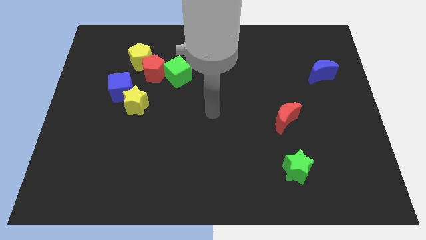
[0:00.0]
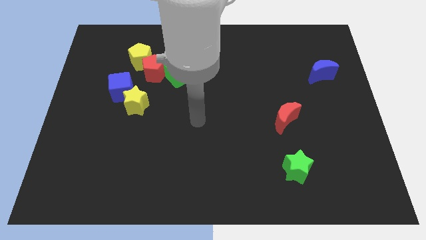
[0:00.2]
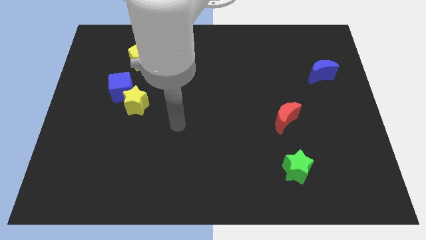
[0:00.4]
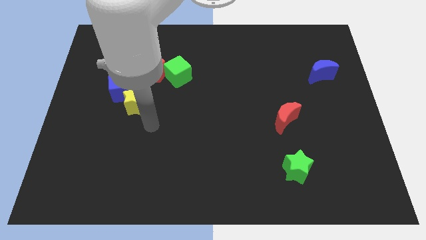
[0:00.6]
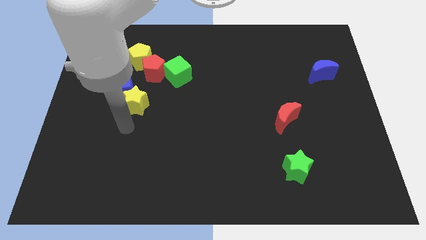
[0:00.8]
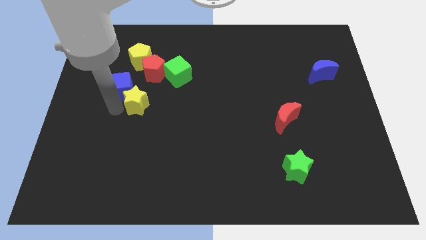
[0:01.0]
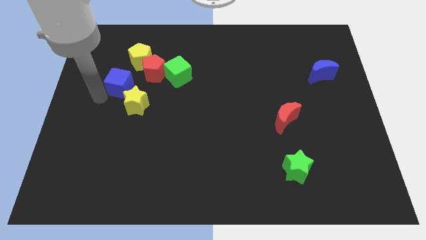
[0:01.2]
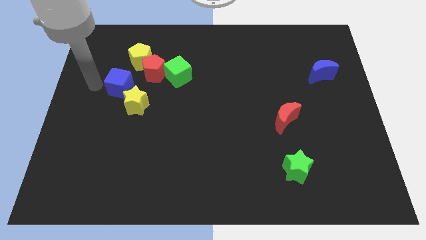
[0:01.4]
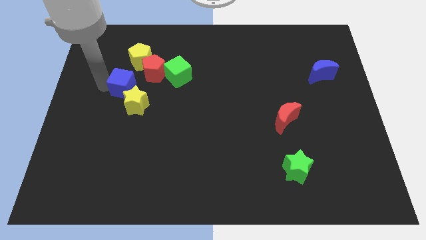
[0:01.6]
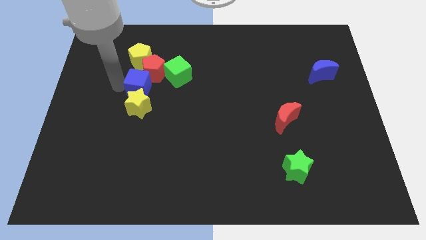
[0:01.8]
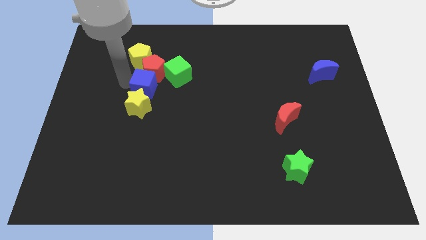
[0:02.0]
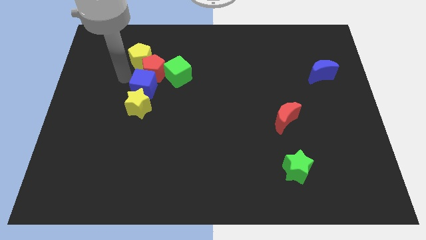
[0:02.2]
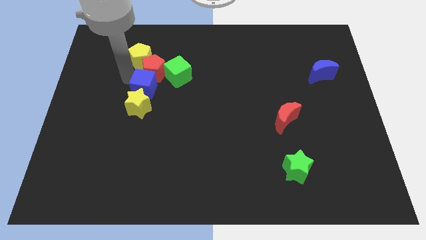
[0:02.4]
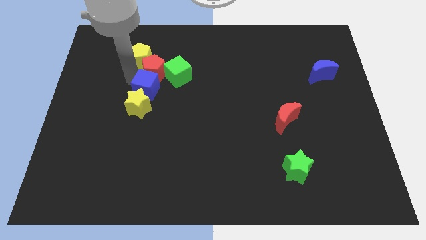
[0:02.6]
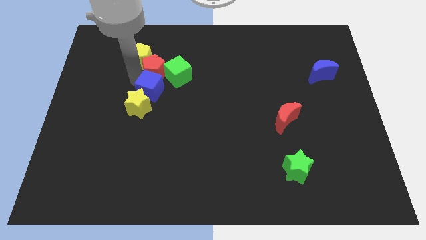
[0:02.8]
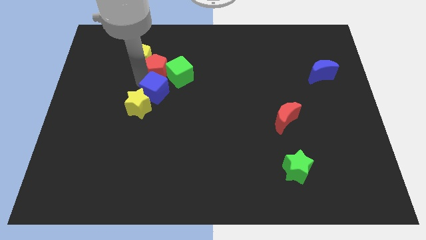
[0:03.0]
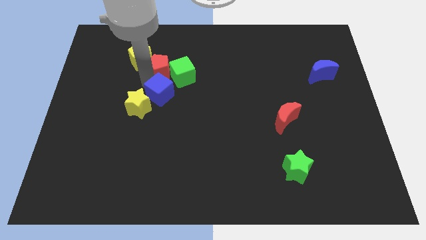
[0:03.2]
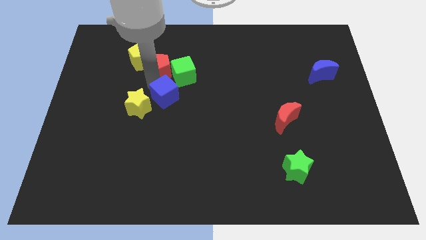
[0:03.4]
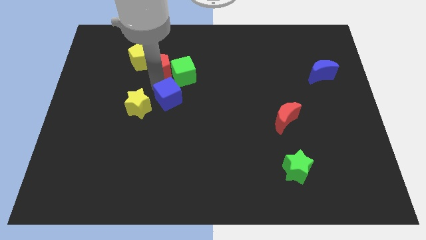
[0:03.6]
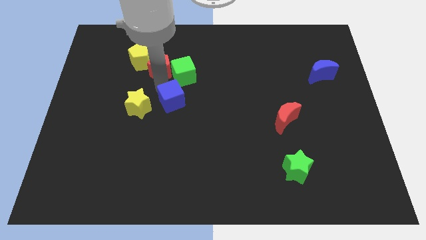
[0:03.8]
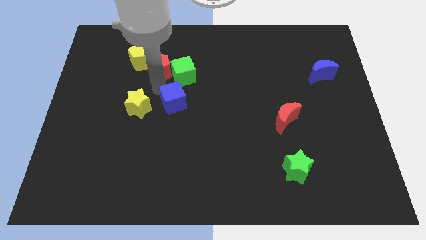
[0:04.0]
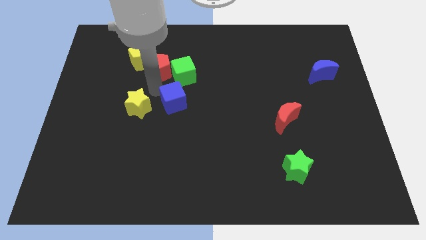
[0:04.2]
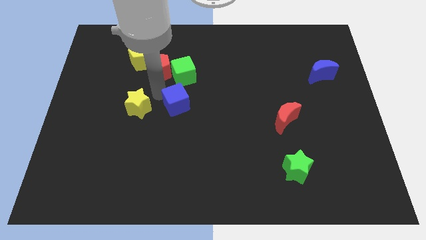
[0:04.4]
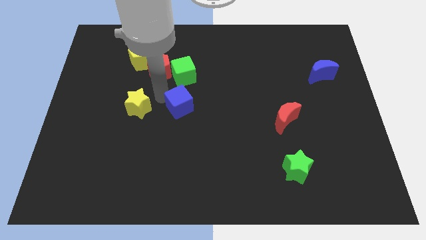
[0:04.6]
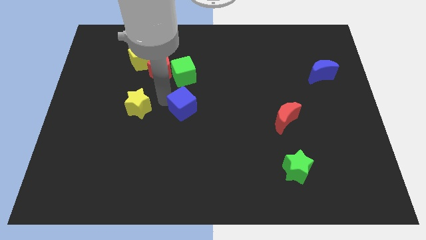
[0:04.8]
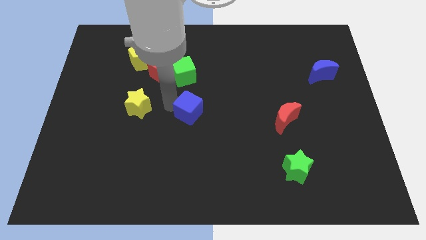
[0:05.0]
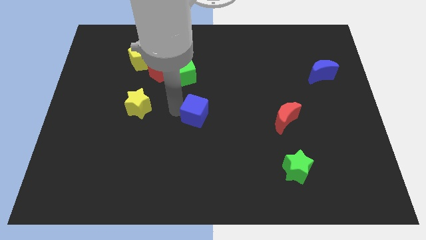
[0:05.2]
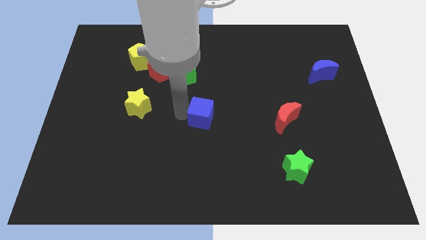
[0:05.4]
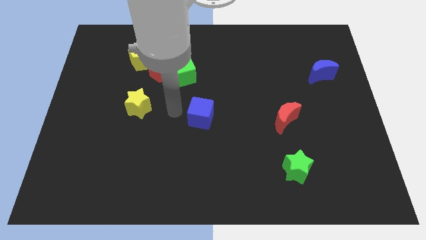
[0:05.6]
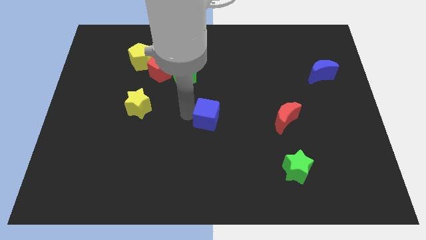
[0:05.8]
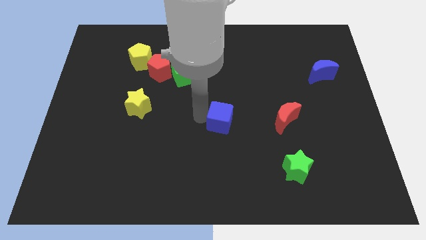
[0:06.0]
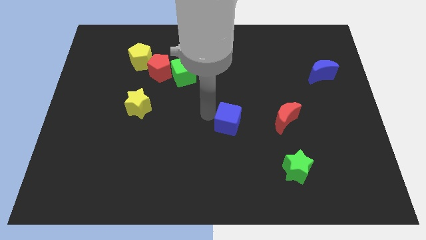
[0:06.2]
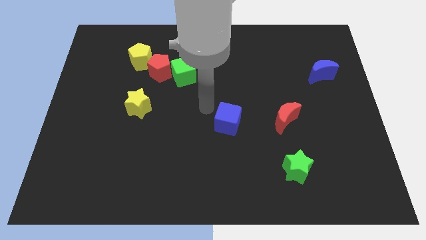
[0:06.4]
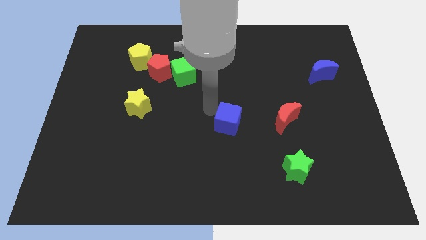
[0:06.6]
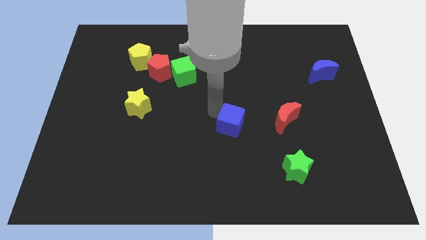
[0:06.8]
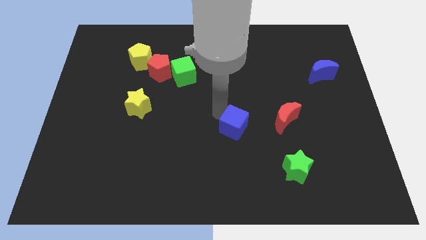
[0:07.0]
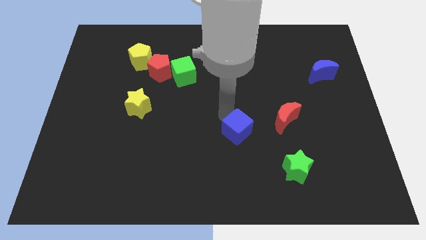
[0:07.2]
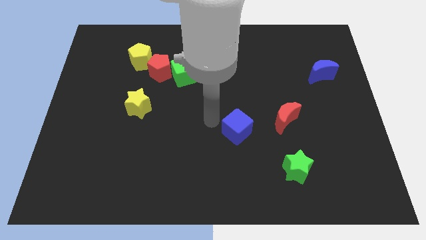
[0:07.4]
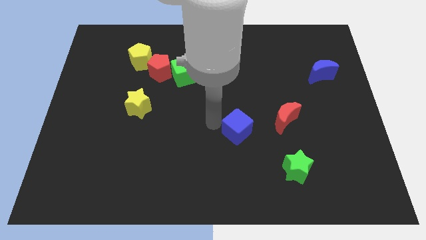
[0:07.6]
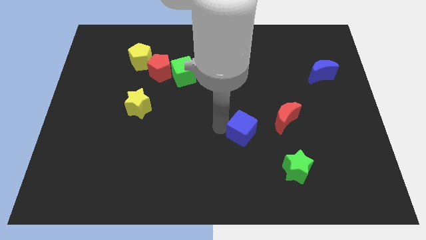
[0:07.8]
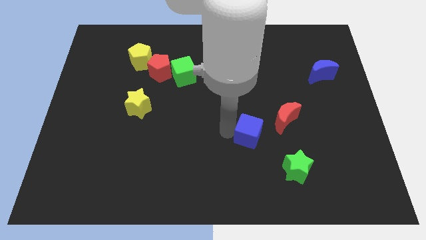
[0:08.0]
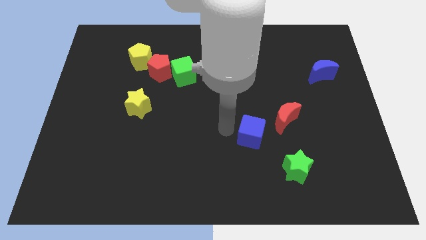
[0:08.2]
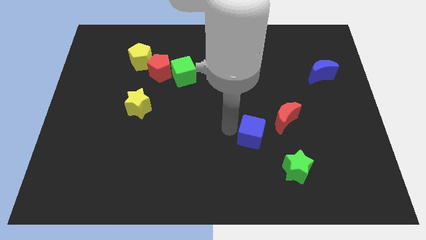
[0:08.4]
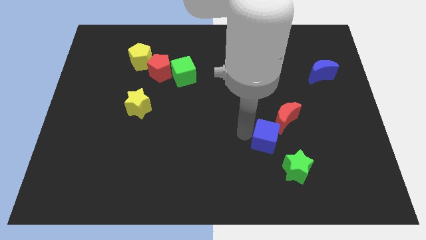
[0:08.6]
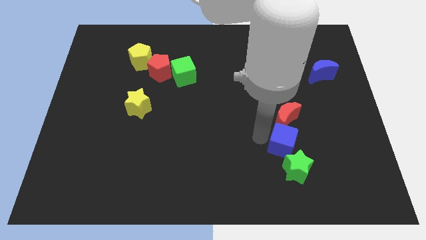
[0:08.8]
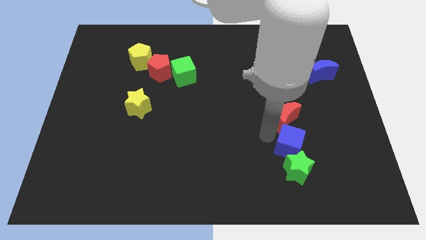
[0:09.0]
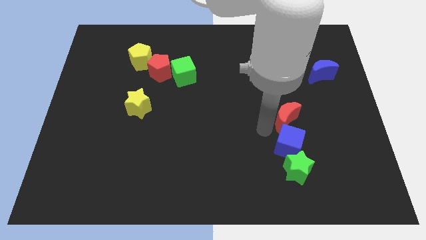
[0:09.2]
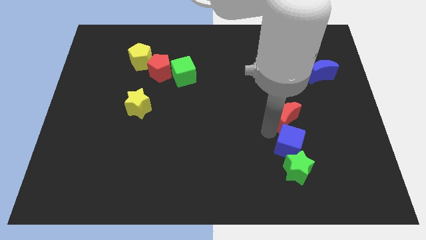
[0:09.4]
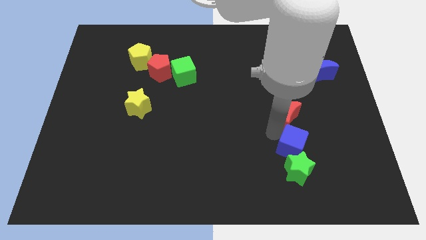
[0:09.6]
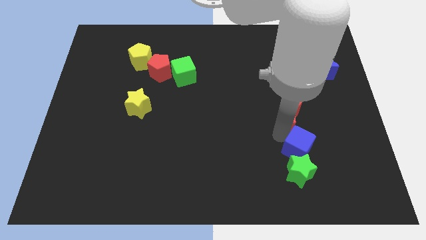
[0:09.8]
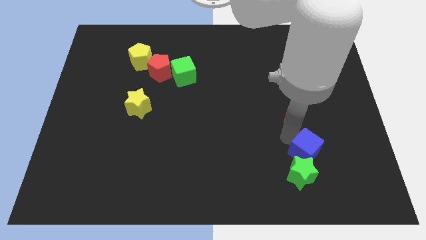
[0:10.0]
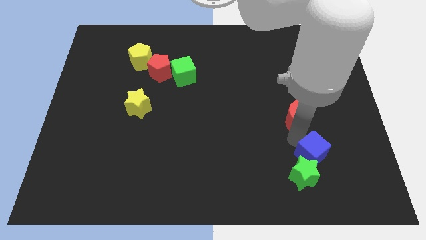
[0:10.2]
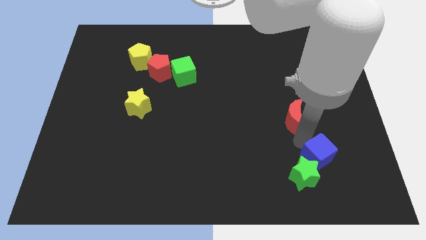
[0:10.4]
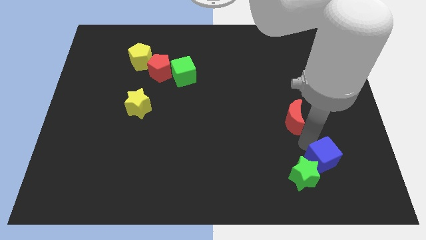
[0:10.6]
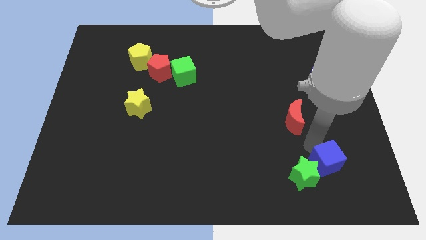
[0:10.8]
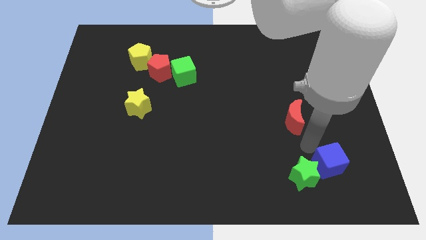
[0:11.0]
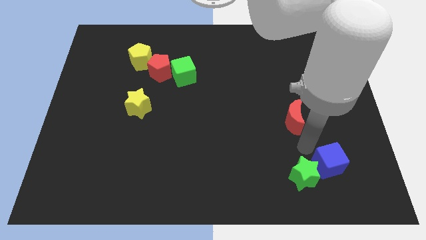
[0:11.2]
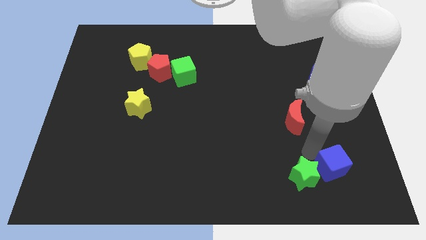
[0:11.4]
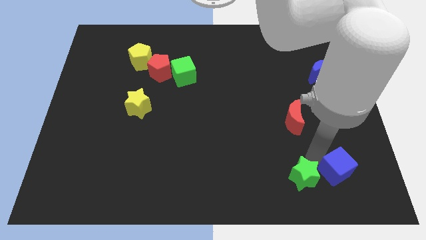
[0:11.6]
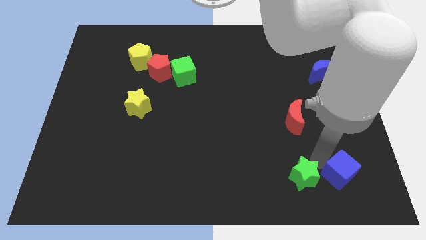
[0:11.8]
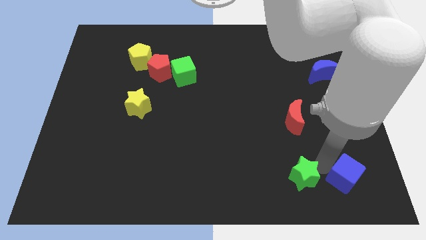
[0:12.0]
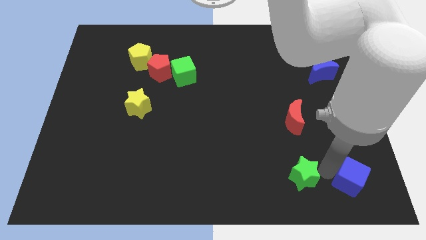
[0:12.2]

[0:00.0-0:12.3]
slide the blue cube to the bottom right of the board
